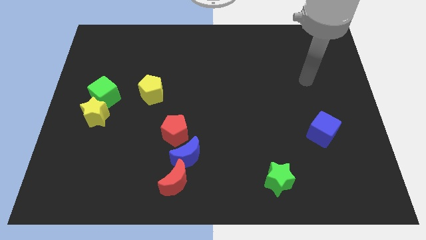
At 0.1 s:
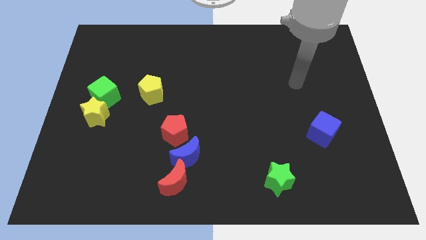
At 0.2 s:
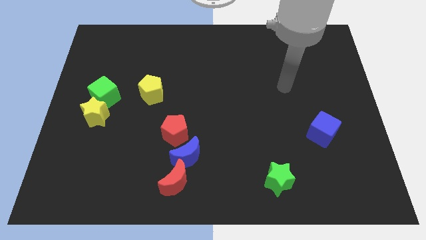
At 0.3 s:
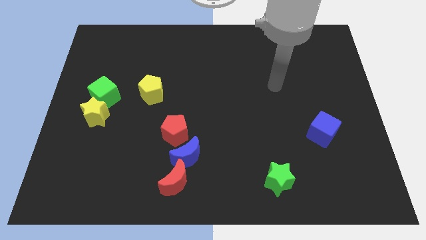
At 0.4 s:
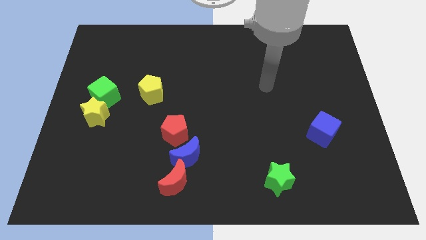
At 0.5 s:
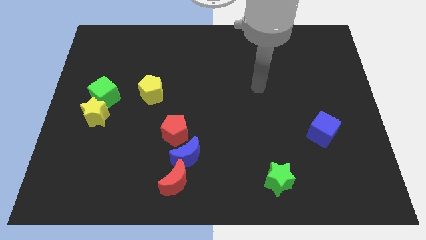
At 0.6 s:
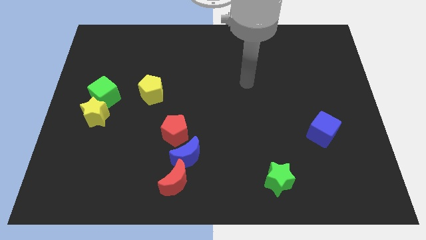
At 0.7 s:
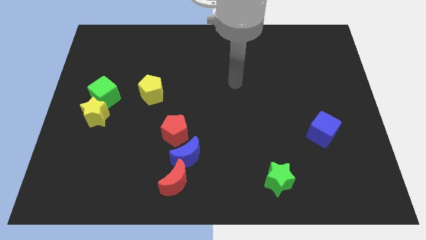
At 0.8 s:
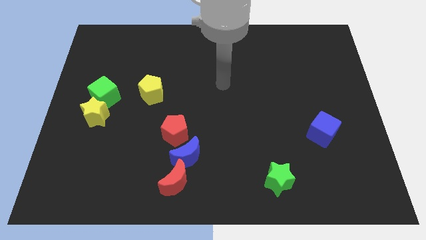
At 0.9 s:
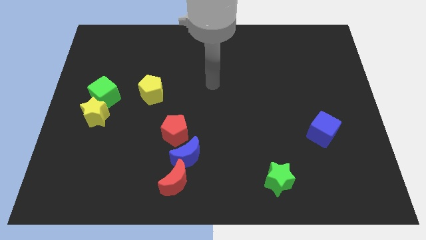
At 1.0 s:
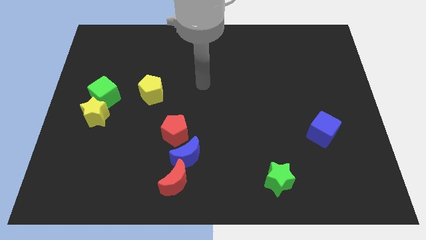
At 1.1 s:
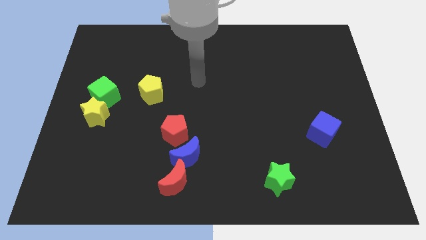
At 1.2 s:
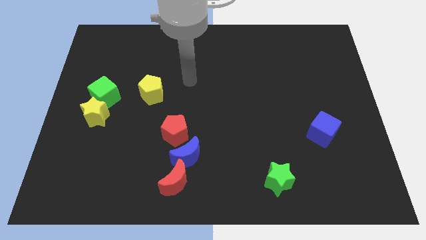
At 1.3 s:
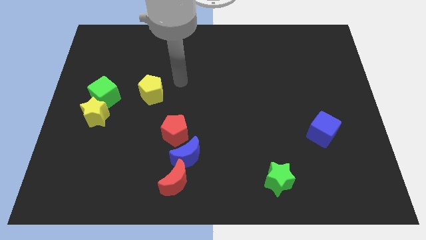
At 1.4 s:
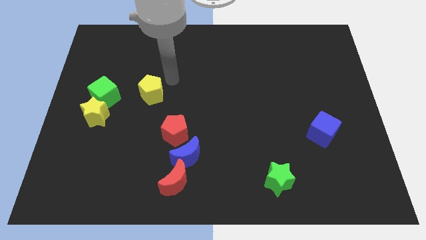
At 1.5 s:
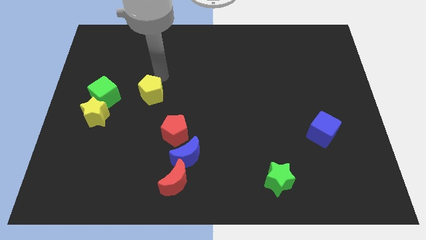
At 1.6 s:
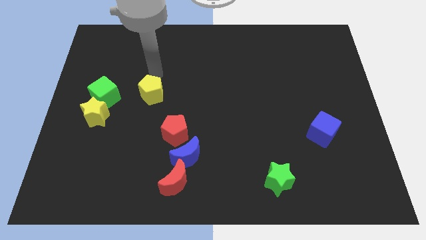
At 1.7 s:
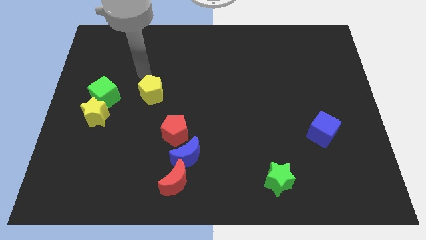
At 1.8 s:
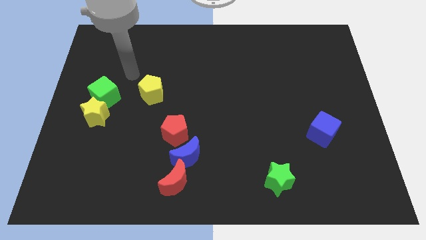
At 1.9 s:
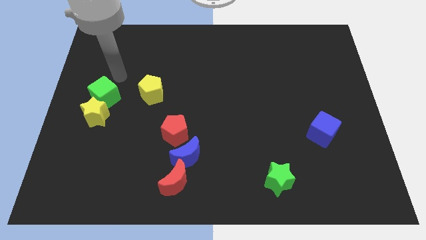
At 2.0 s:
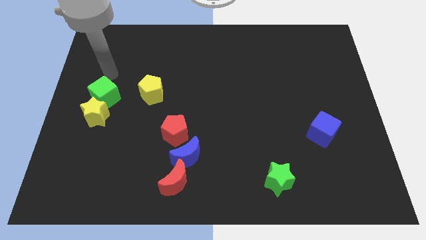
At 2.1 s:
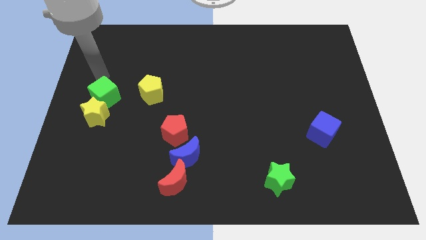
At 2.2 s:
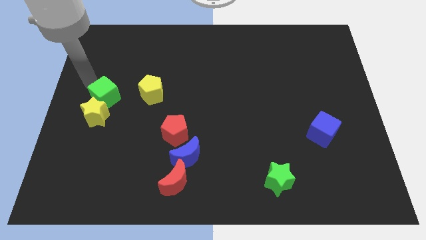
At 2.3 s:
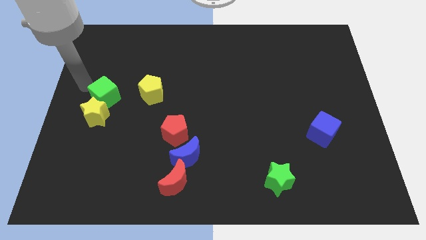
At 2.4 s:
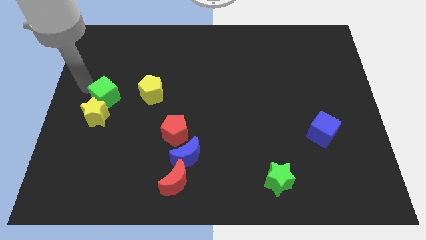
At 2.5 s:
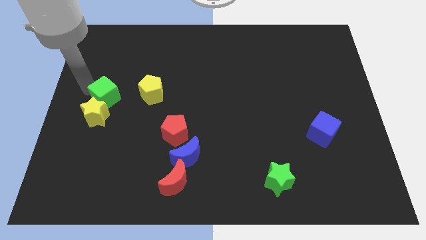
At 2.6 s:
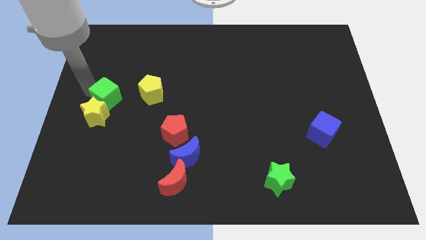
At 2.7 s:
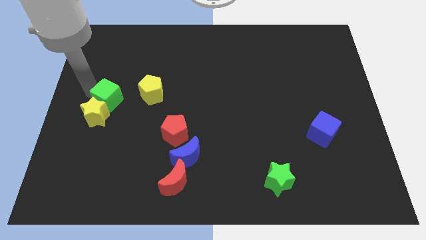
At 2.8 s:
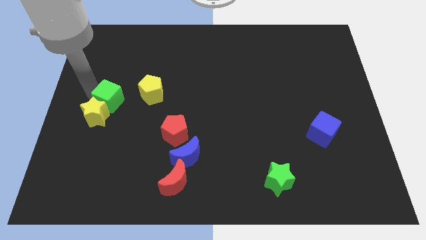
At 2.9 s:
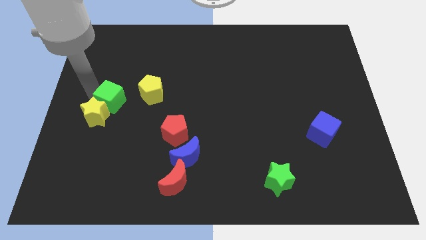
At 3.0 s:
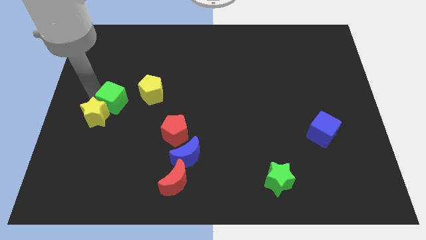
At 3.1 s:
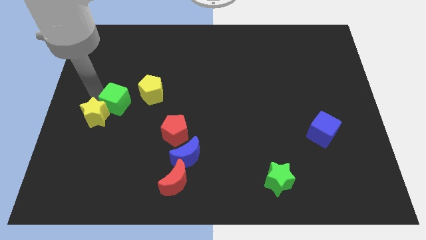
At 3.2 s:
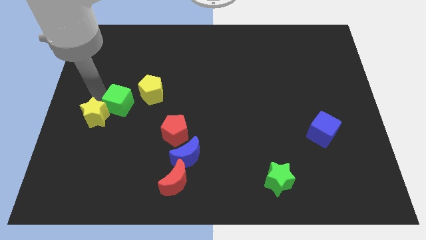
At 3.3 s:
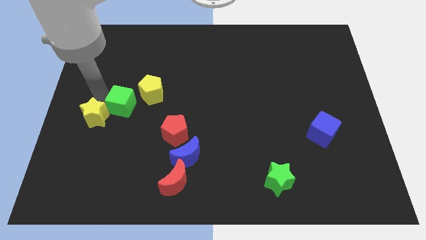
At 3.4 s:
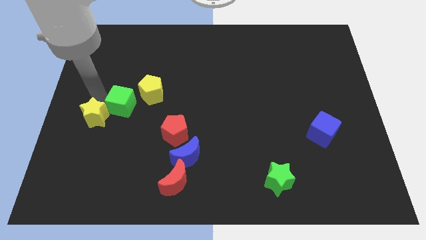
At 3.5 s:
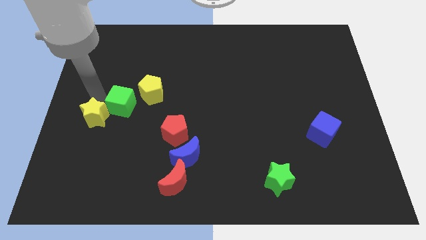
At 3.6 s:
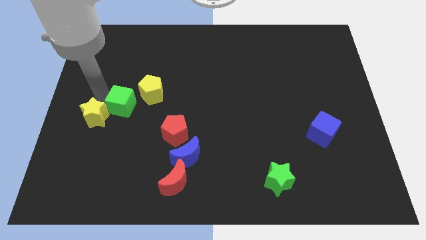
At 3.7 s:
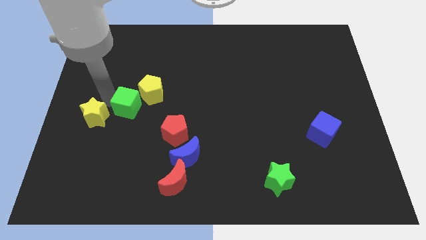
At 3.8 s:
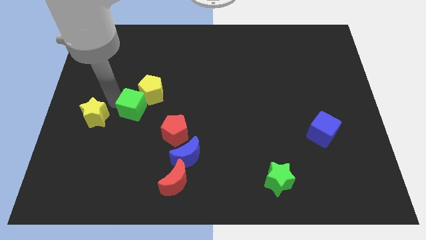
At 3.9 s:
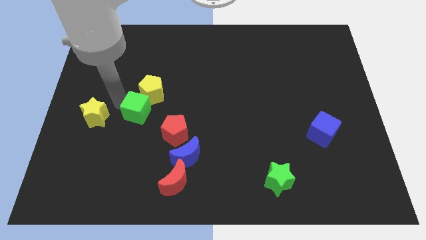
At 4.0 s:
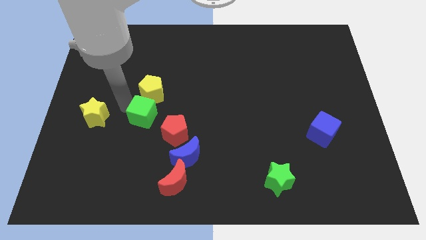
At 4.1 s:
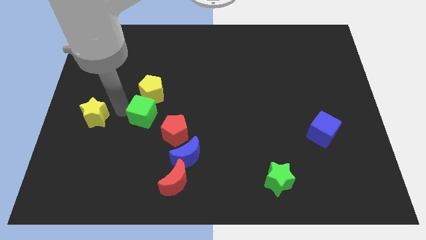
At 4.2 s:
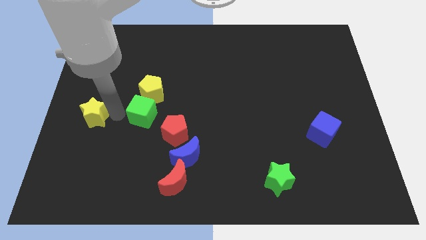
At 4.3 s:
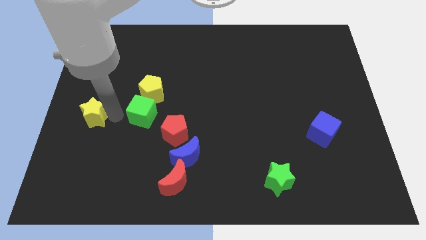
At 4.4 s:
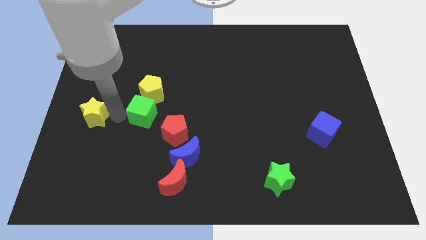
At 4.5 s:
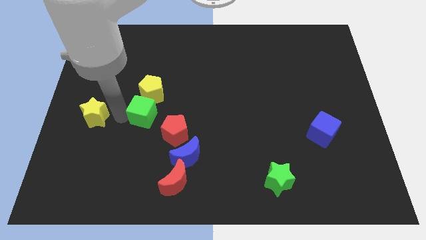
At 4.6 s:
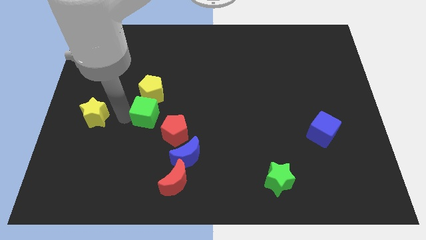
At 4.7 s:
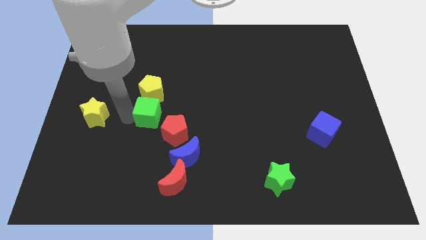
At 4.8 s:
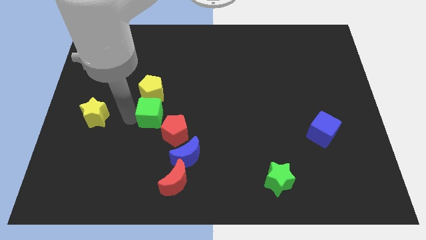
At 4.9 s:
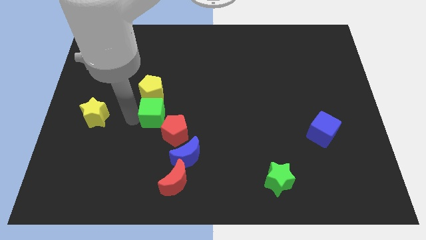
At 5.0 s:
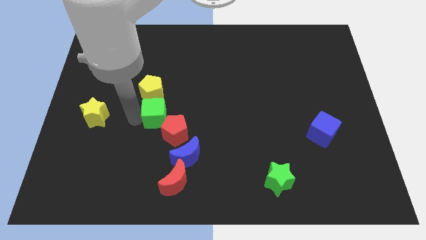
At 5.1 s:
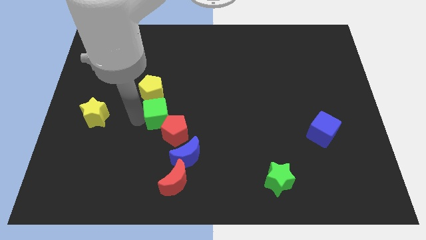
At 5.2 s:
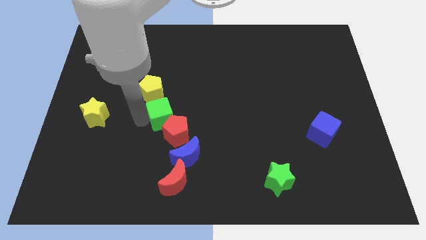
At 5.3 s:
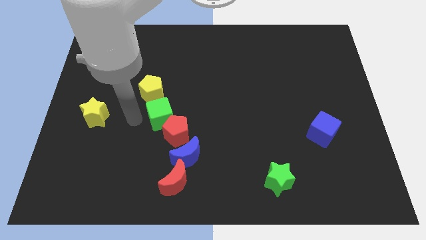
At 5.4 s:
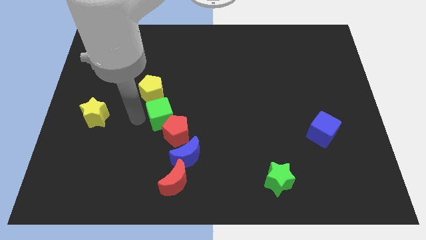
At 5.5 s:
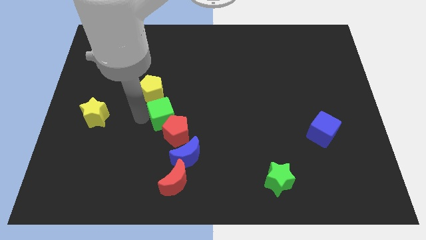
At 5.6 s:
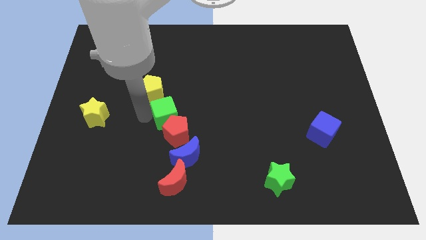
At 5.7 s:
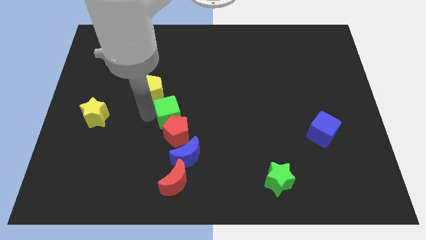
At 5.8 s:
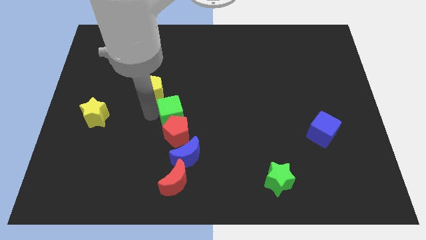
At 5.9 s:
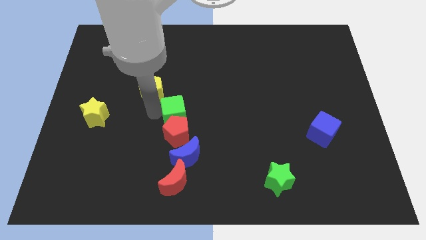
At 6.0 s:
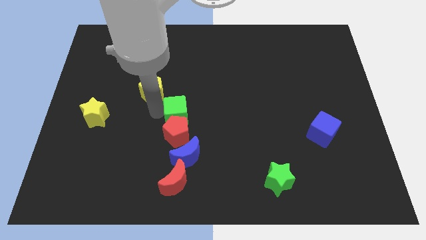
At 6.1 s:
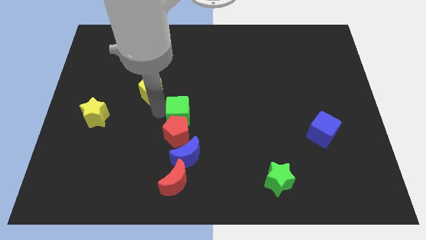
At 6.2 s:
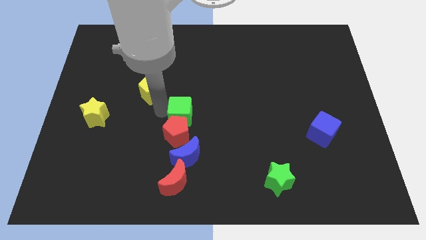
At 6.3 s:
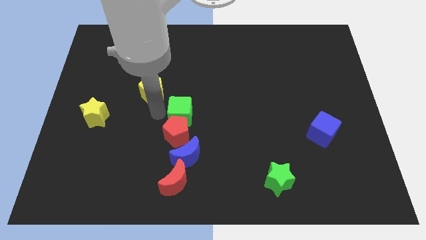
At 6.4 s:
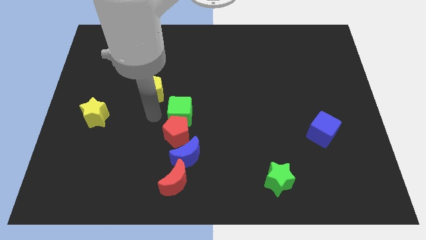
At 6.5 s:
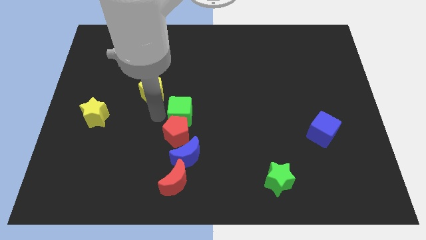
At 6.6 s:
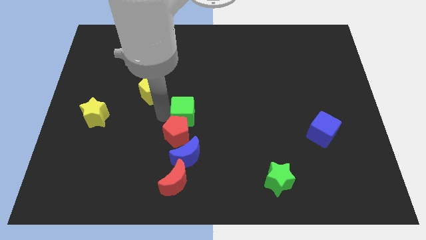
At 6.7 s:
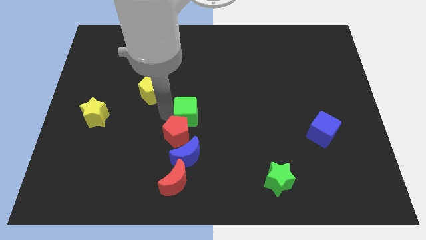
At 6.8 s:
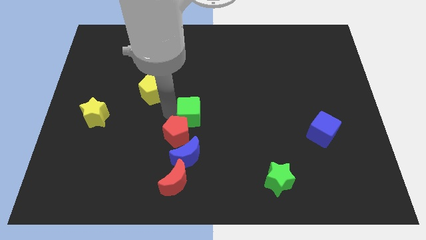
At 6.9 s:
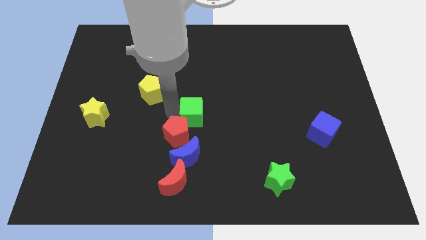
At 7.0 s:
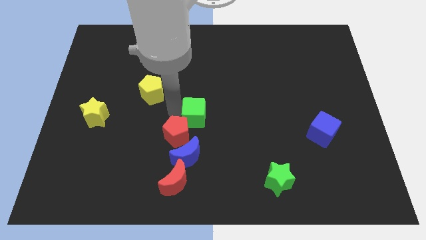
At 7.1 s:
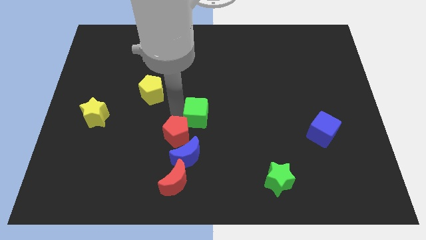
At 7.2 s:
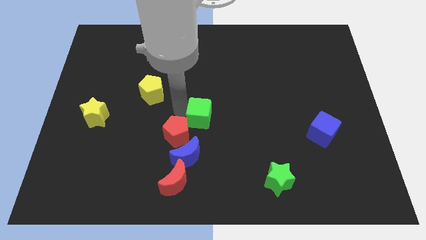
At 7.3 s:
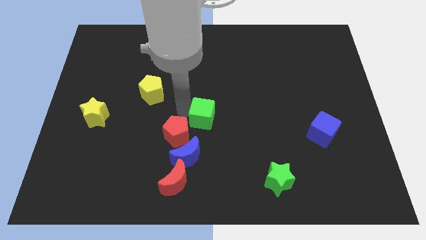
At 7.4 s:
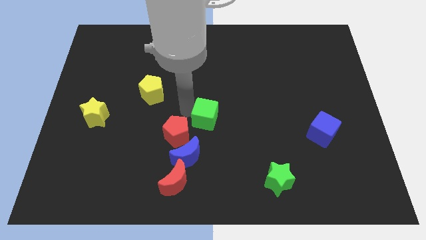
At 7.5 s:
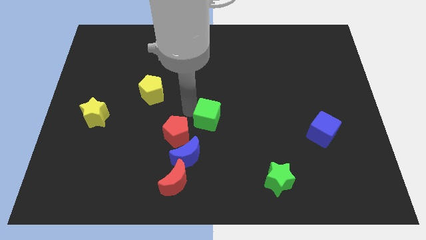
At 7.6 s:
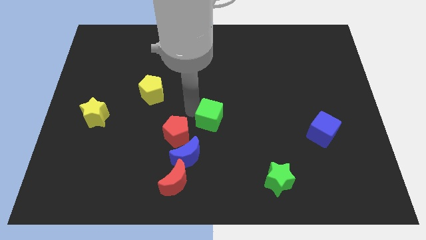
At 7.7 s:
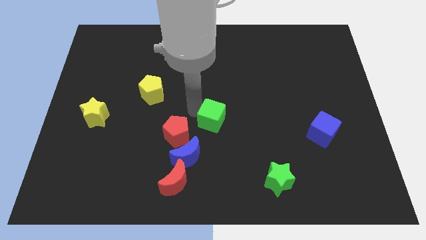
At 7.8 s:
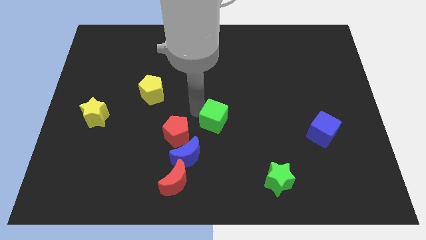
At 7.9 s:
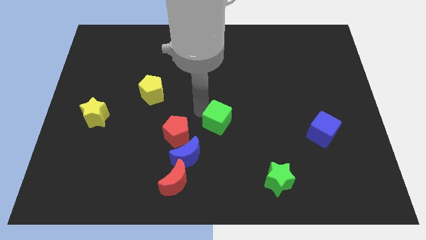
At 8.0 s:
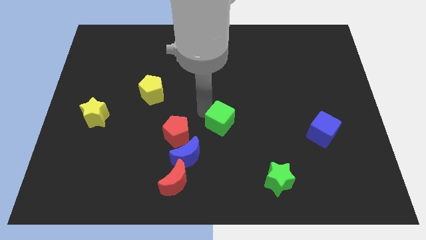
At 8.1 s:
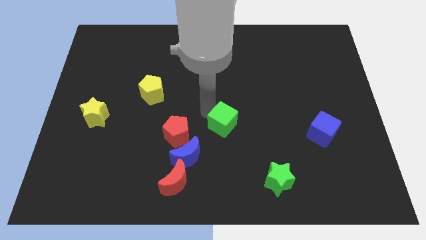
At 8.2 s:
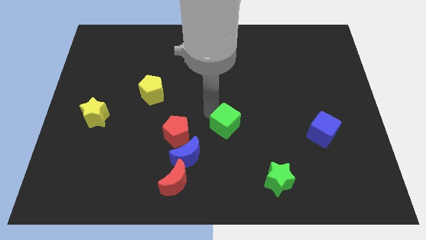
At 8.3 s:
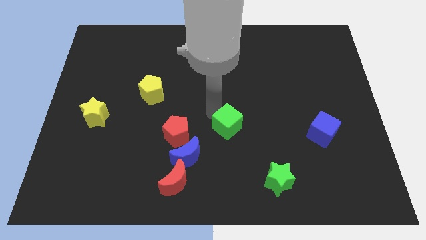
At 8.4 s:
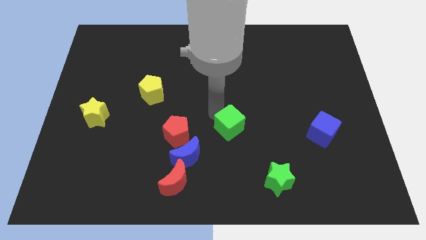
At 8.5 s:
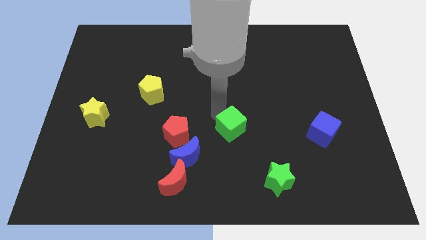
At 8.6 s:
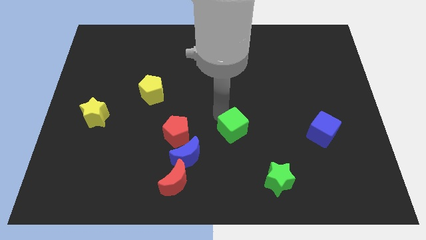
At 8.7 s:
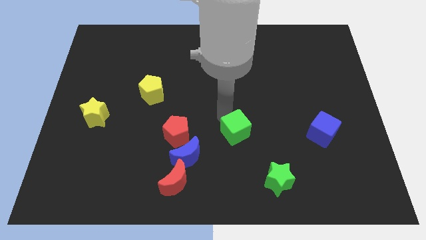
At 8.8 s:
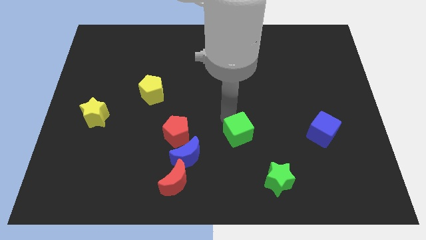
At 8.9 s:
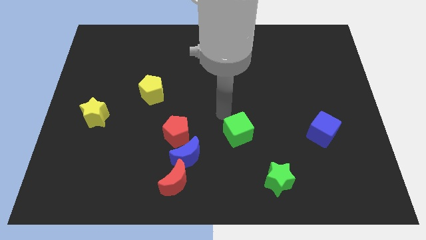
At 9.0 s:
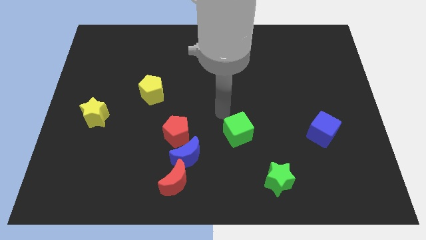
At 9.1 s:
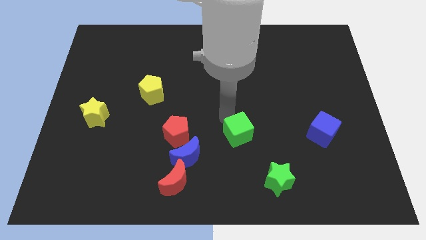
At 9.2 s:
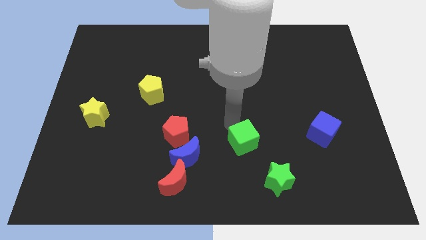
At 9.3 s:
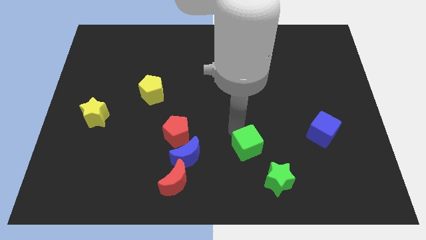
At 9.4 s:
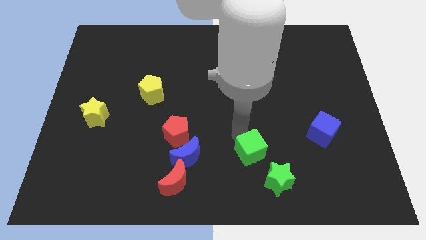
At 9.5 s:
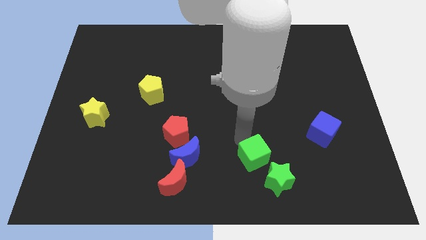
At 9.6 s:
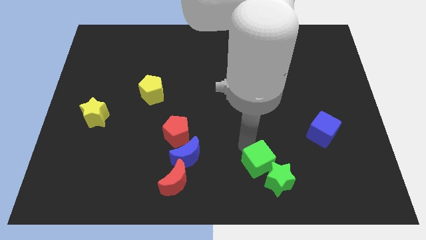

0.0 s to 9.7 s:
move the green cube to the green star
